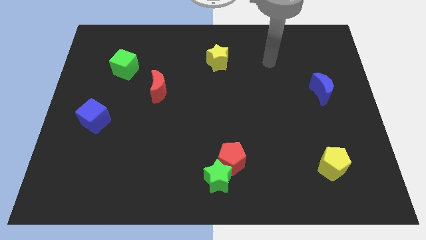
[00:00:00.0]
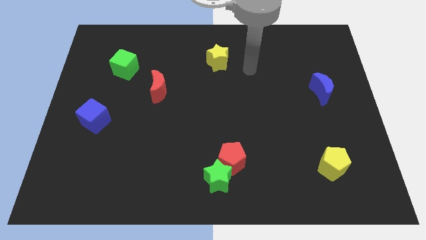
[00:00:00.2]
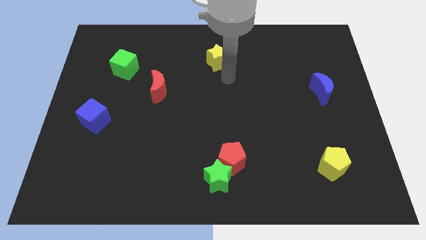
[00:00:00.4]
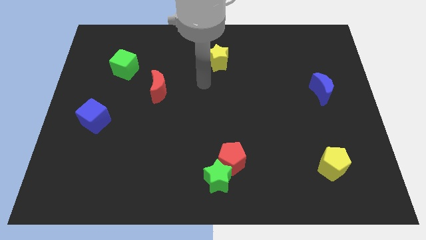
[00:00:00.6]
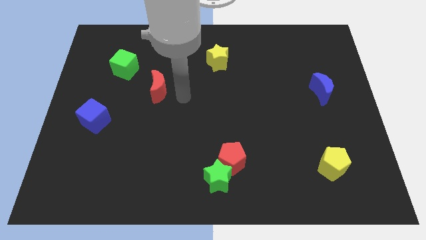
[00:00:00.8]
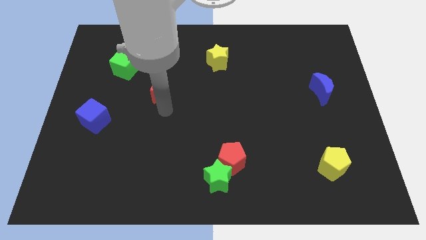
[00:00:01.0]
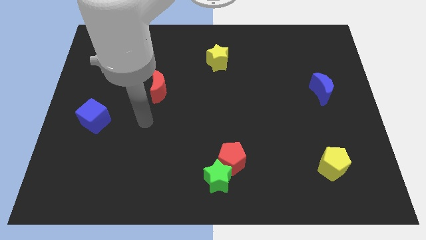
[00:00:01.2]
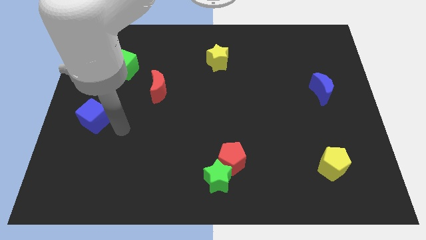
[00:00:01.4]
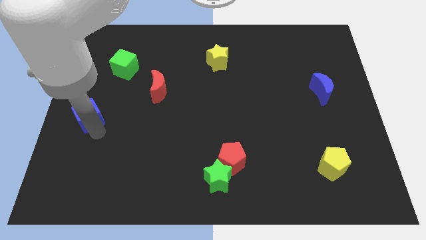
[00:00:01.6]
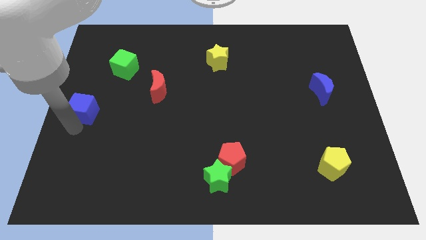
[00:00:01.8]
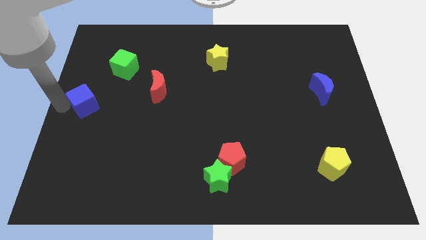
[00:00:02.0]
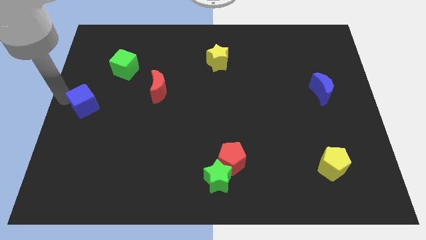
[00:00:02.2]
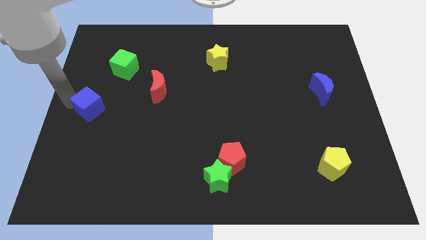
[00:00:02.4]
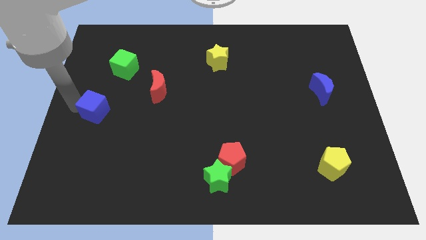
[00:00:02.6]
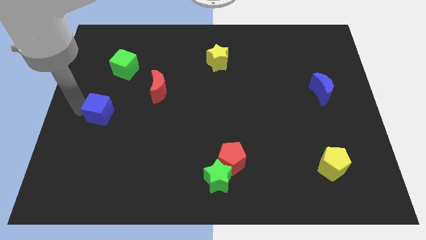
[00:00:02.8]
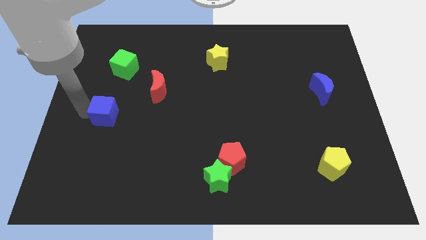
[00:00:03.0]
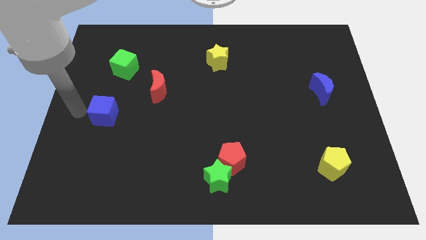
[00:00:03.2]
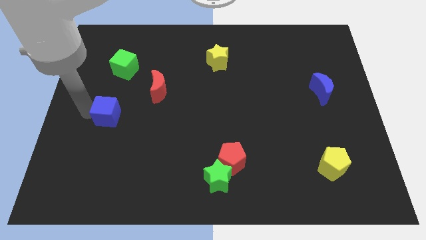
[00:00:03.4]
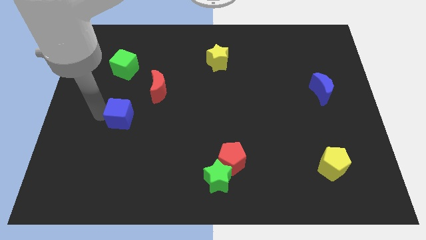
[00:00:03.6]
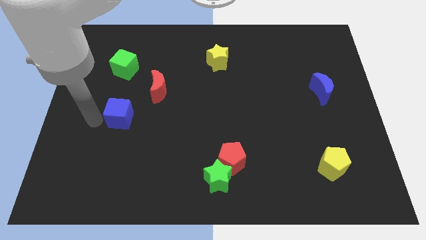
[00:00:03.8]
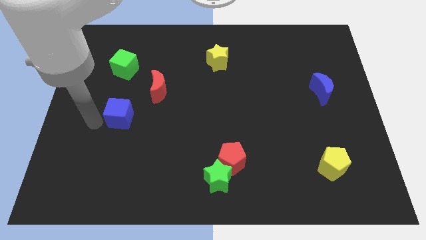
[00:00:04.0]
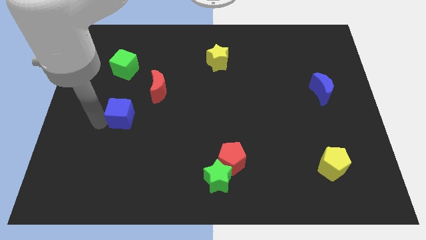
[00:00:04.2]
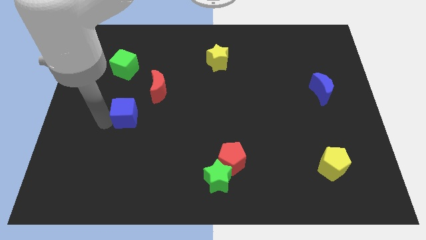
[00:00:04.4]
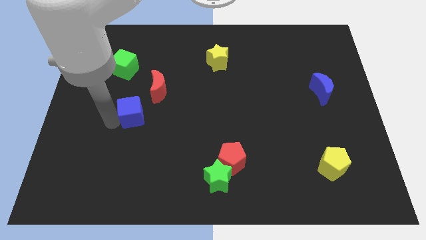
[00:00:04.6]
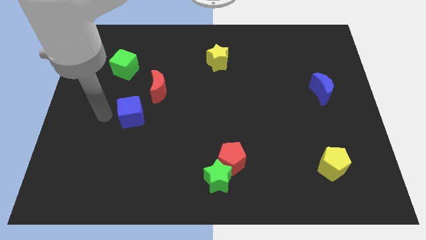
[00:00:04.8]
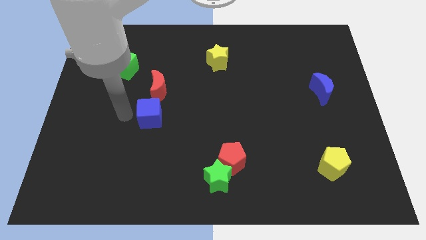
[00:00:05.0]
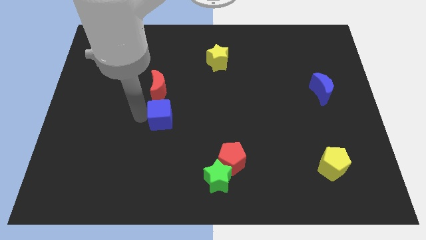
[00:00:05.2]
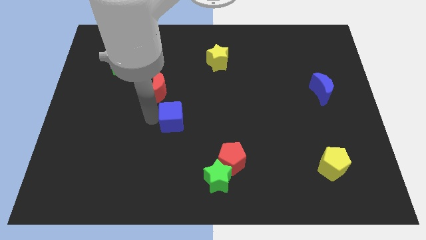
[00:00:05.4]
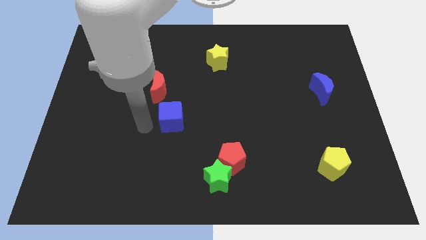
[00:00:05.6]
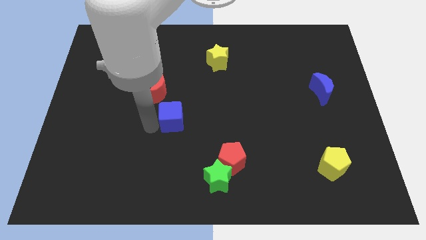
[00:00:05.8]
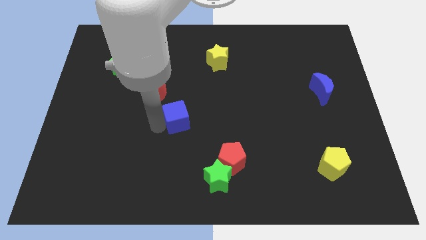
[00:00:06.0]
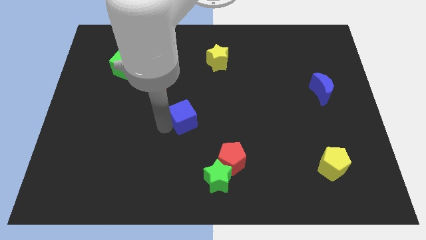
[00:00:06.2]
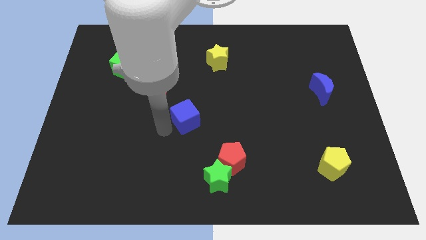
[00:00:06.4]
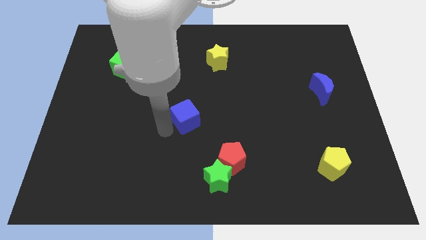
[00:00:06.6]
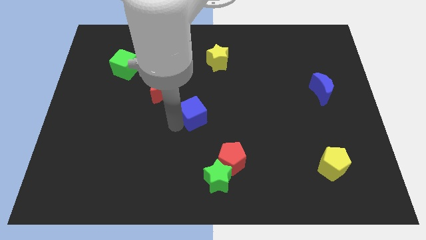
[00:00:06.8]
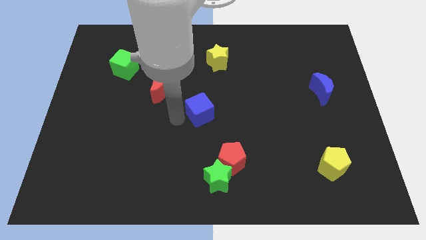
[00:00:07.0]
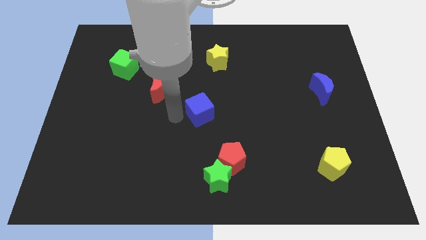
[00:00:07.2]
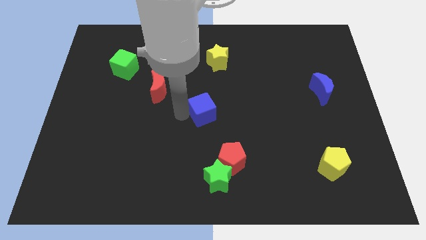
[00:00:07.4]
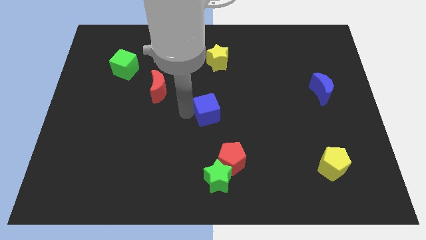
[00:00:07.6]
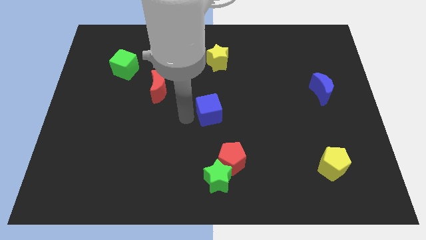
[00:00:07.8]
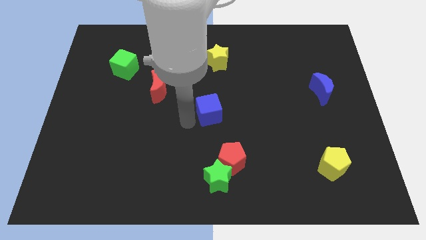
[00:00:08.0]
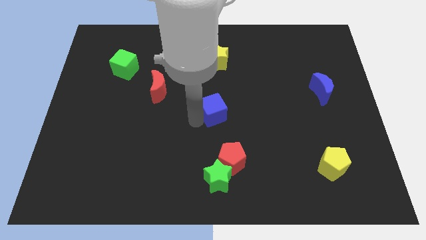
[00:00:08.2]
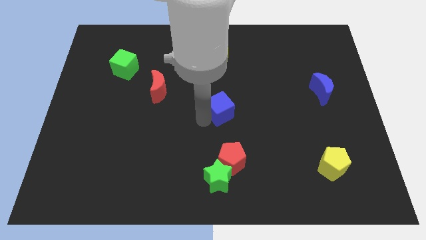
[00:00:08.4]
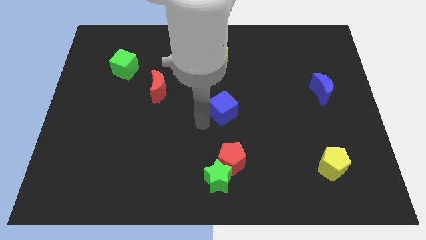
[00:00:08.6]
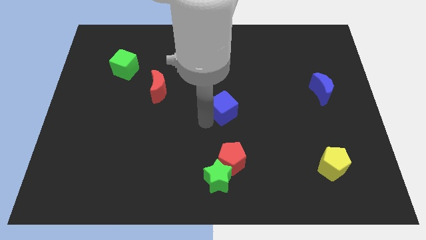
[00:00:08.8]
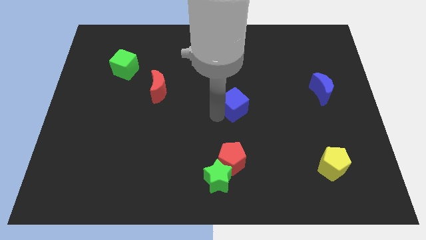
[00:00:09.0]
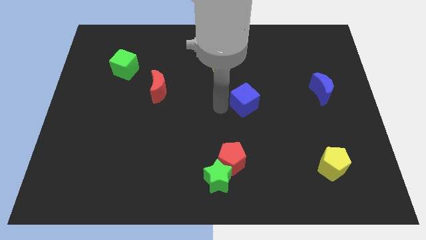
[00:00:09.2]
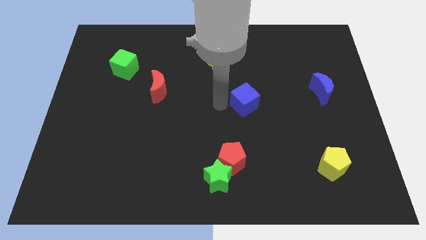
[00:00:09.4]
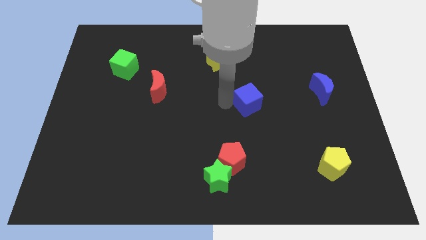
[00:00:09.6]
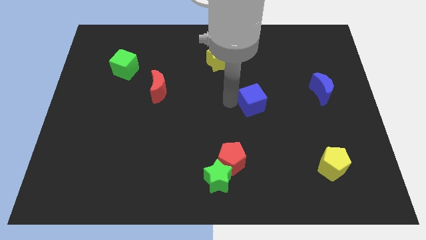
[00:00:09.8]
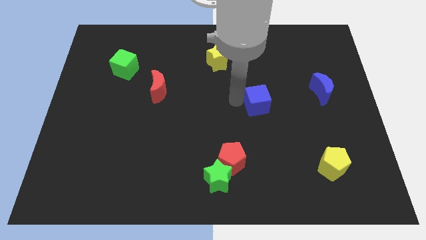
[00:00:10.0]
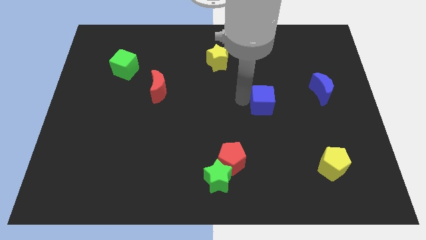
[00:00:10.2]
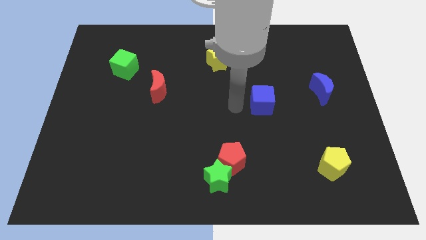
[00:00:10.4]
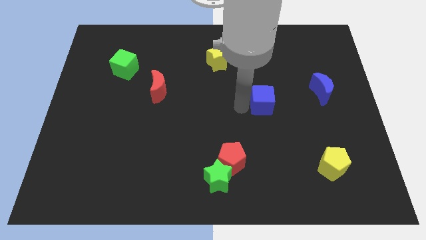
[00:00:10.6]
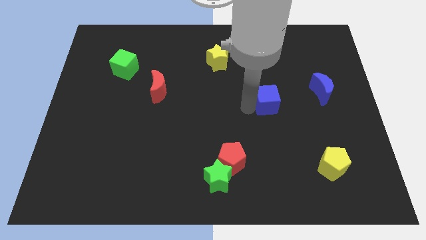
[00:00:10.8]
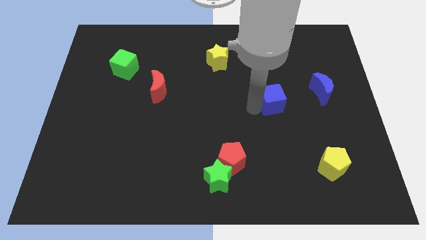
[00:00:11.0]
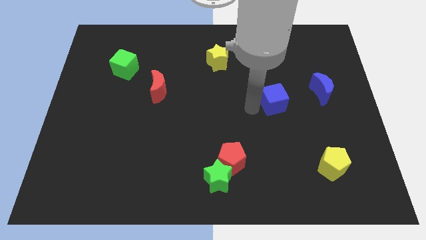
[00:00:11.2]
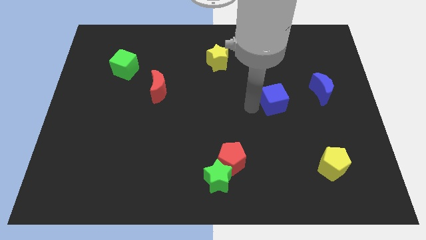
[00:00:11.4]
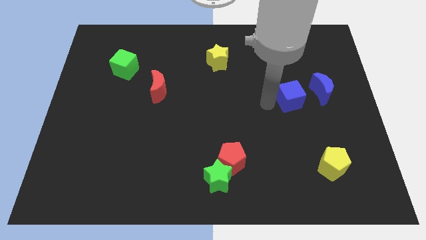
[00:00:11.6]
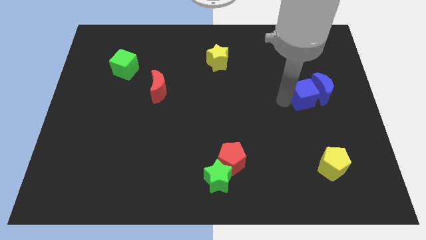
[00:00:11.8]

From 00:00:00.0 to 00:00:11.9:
move the blue cube close to the blue moon

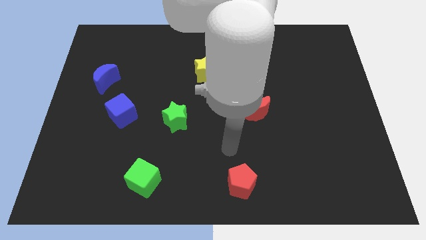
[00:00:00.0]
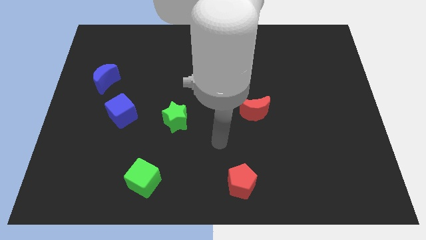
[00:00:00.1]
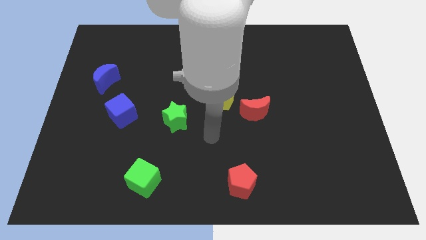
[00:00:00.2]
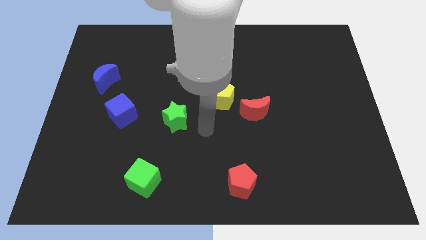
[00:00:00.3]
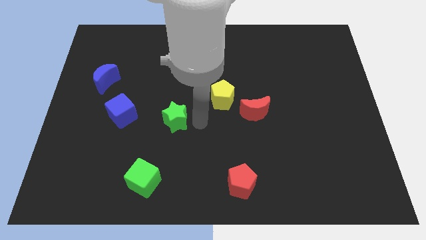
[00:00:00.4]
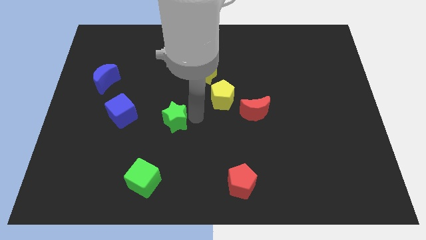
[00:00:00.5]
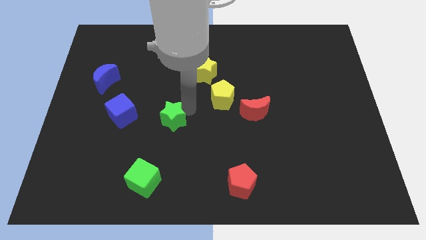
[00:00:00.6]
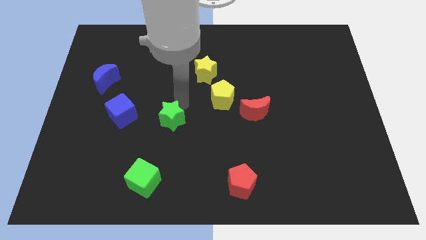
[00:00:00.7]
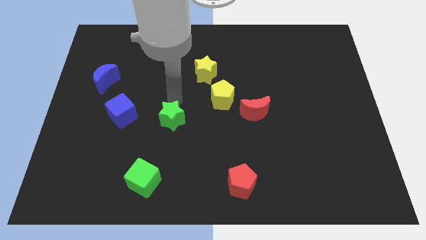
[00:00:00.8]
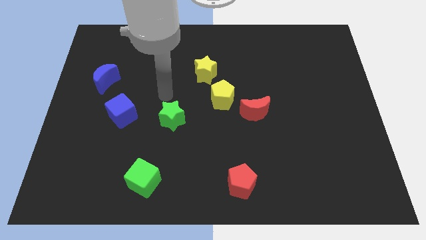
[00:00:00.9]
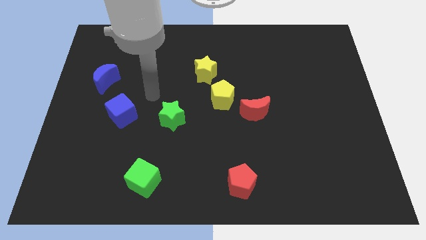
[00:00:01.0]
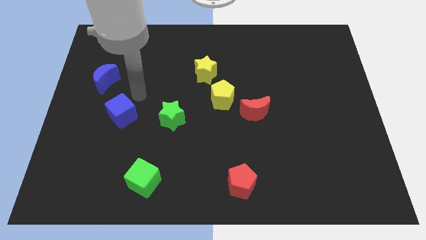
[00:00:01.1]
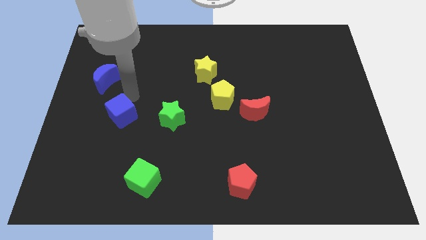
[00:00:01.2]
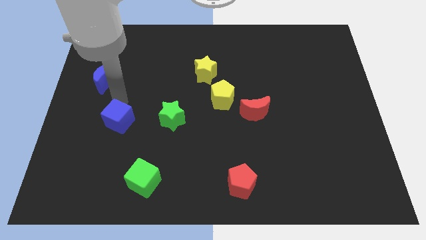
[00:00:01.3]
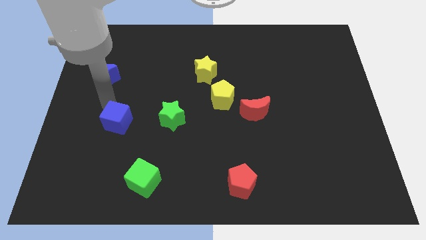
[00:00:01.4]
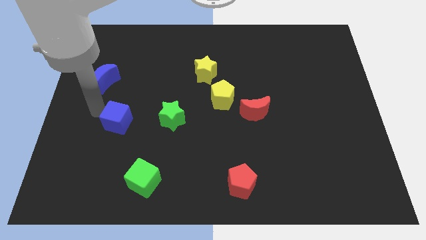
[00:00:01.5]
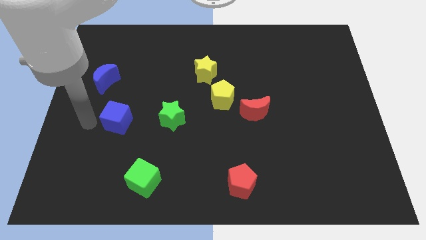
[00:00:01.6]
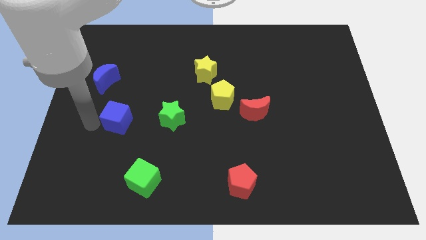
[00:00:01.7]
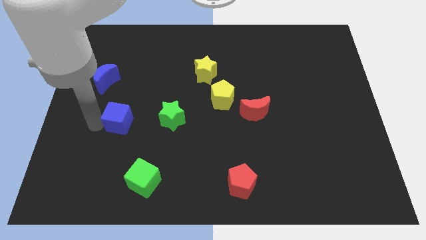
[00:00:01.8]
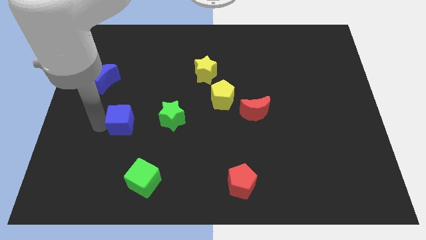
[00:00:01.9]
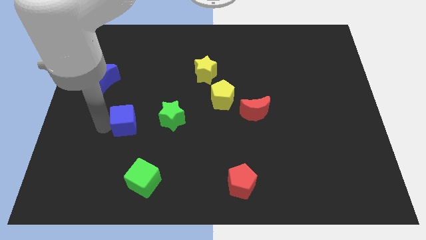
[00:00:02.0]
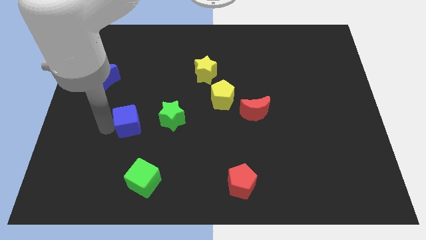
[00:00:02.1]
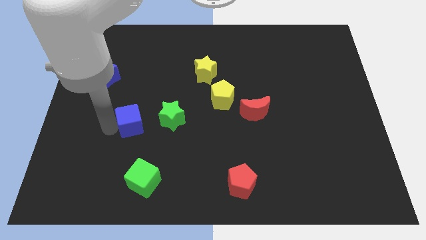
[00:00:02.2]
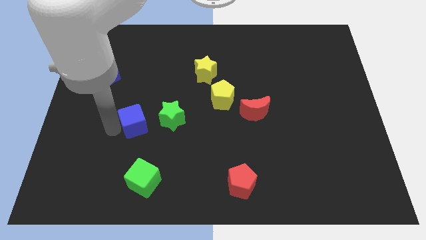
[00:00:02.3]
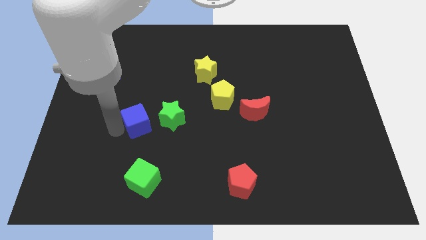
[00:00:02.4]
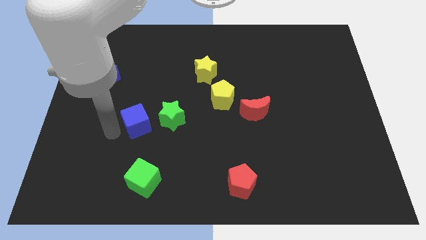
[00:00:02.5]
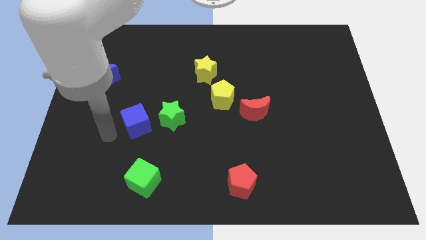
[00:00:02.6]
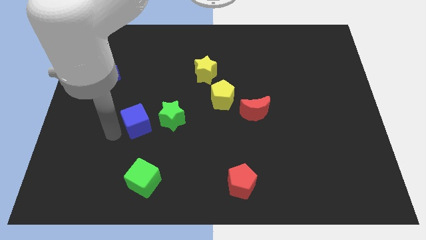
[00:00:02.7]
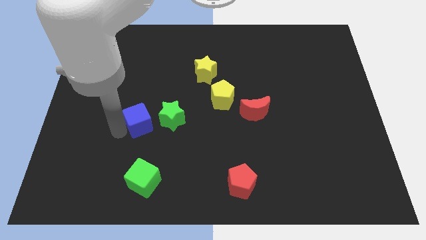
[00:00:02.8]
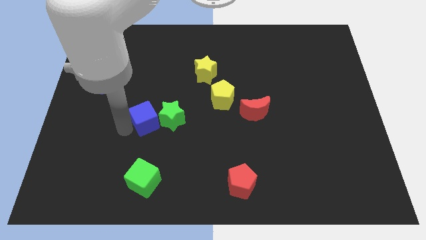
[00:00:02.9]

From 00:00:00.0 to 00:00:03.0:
slide the blue cube towards the green star
